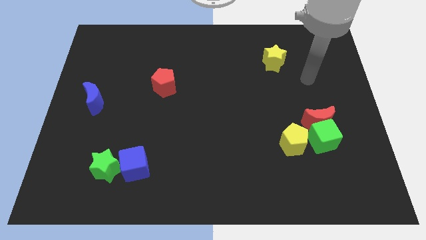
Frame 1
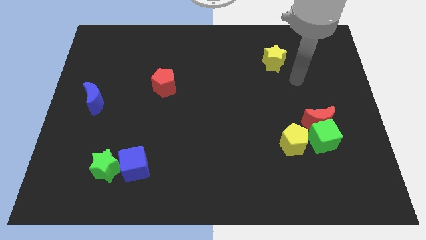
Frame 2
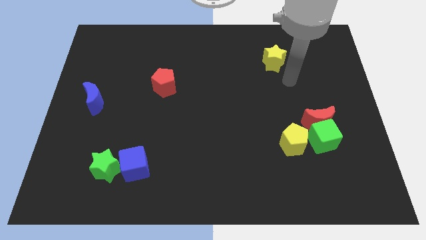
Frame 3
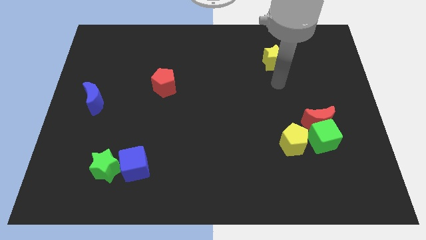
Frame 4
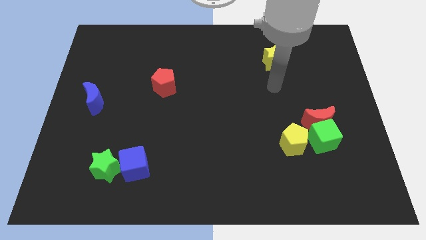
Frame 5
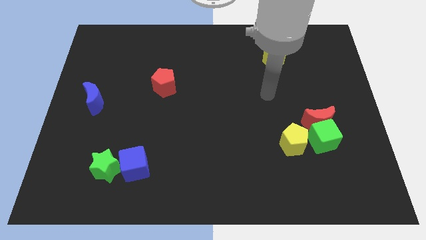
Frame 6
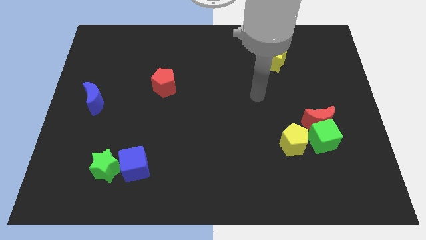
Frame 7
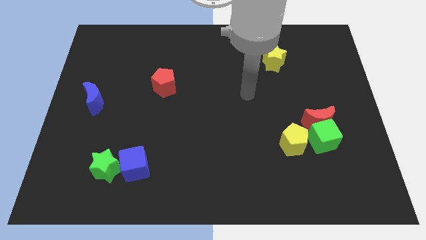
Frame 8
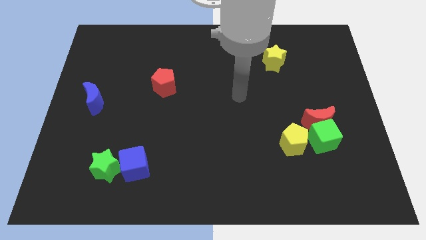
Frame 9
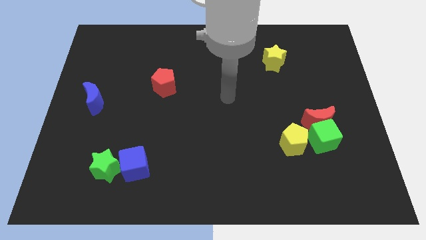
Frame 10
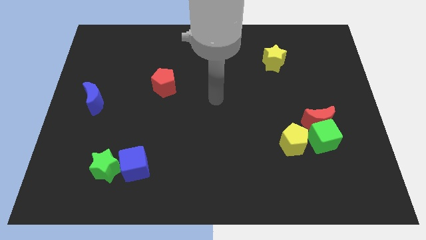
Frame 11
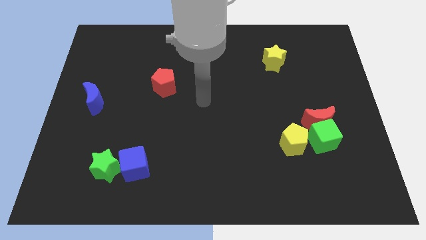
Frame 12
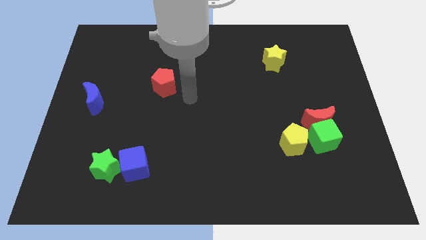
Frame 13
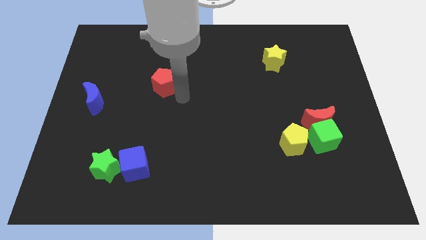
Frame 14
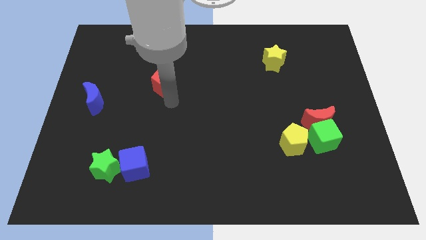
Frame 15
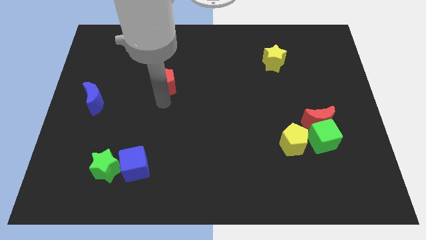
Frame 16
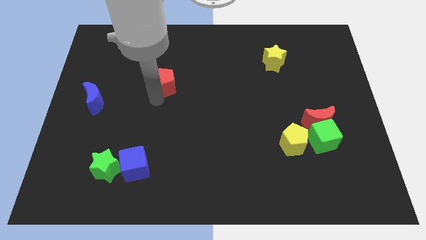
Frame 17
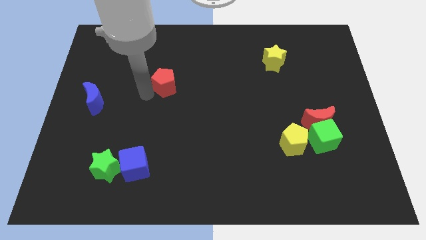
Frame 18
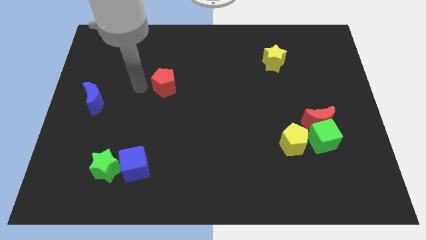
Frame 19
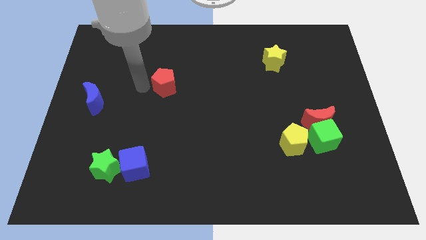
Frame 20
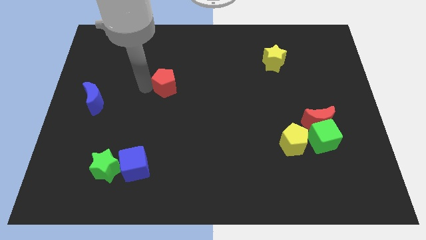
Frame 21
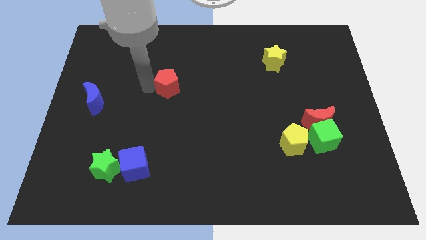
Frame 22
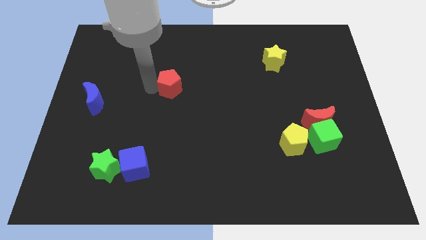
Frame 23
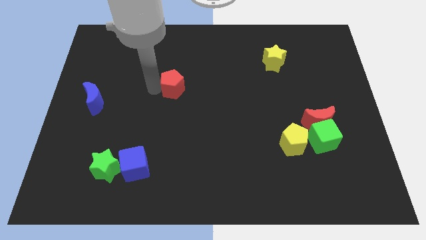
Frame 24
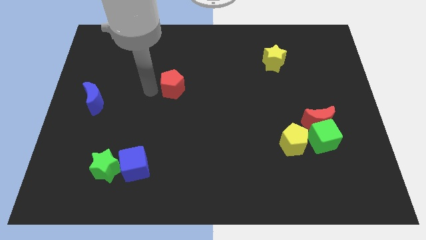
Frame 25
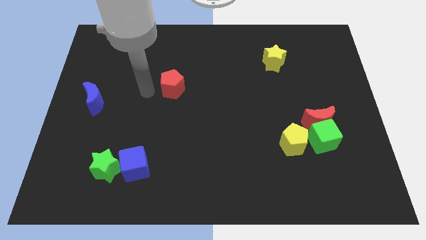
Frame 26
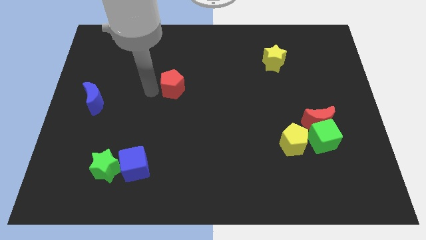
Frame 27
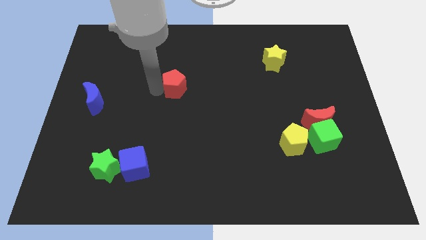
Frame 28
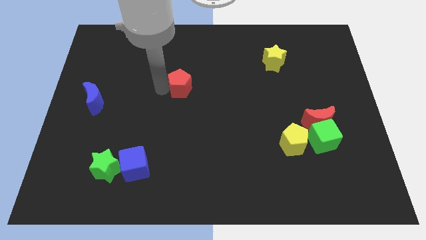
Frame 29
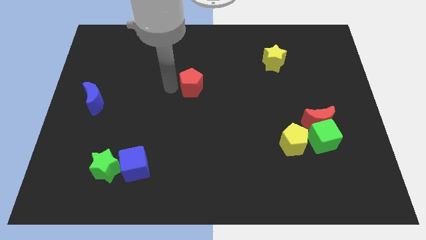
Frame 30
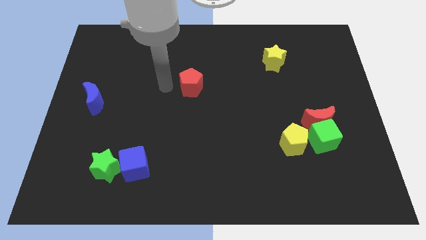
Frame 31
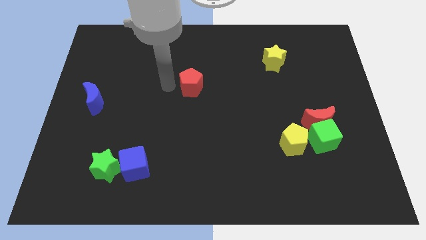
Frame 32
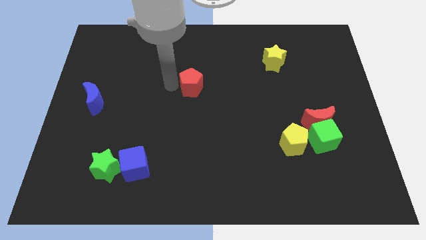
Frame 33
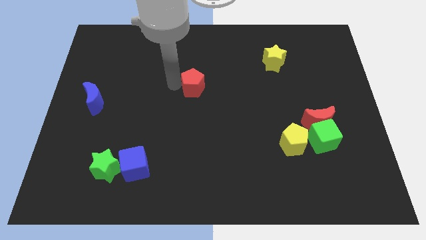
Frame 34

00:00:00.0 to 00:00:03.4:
push the red pentagon to the right a little

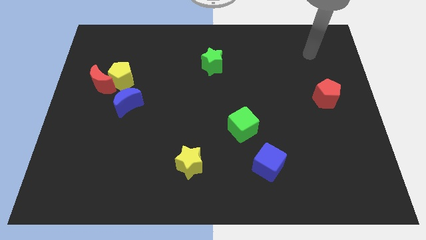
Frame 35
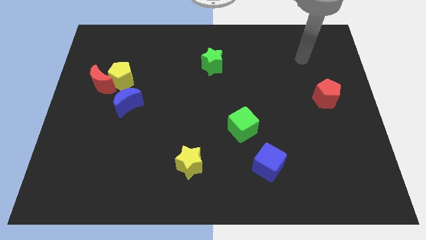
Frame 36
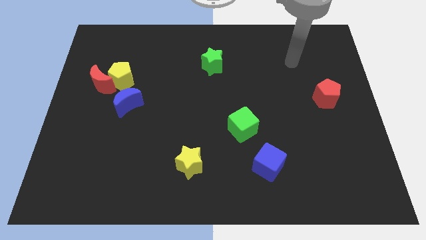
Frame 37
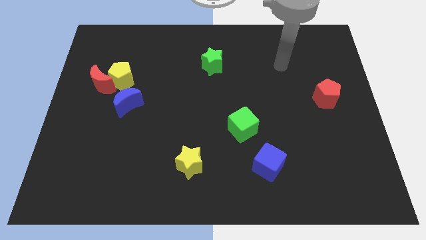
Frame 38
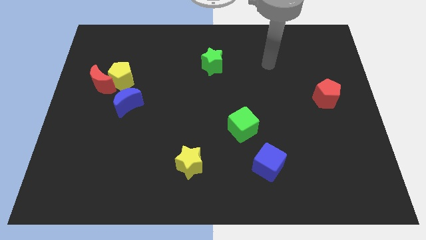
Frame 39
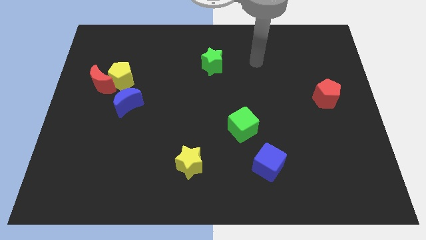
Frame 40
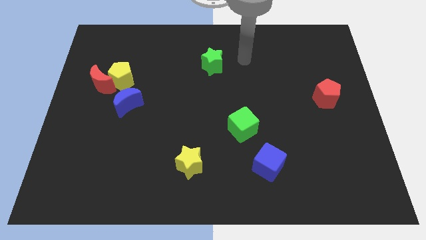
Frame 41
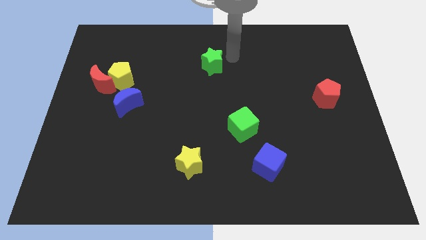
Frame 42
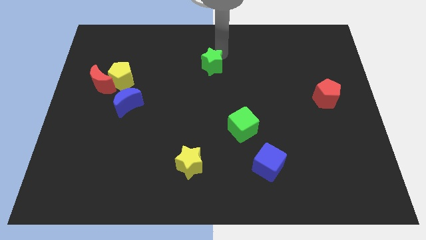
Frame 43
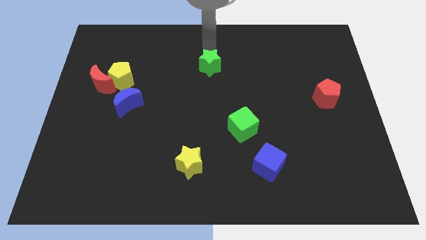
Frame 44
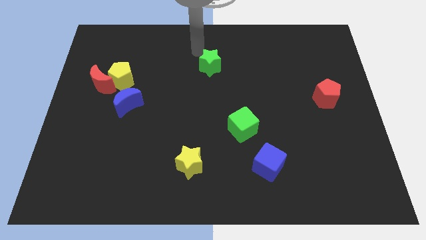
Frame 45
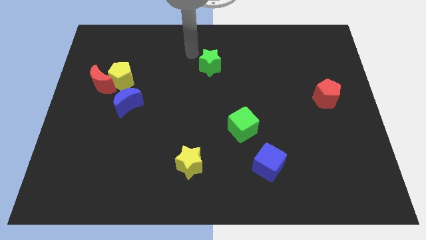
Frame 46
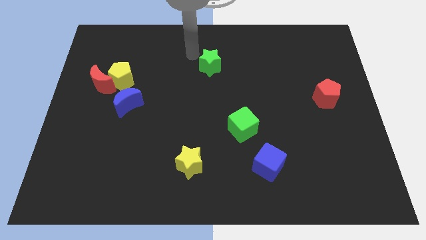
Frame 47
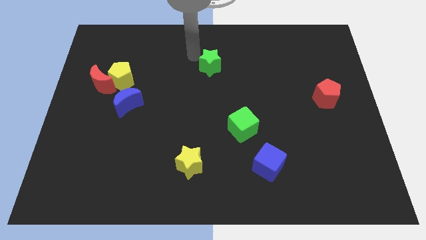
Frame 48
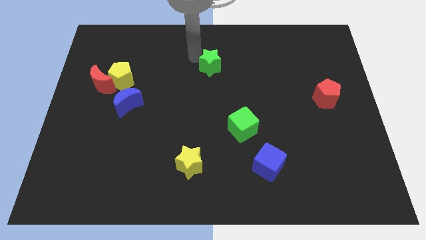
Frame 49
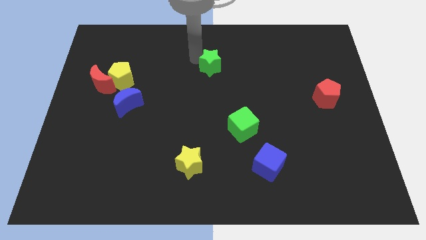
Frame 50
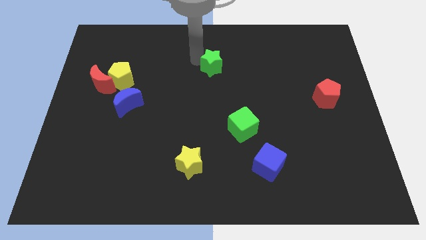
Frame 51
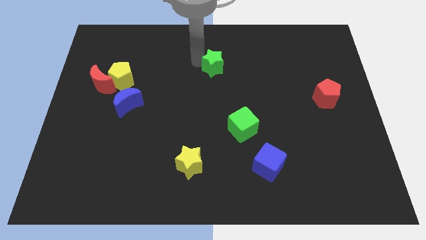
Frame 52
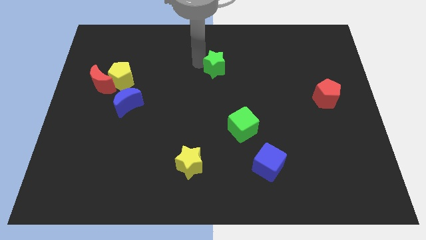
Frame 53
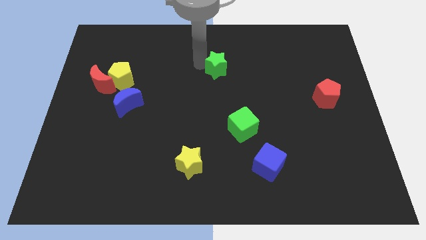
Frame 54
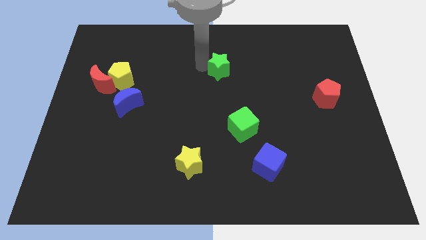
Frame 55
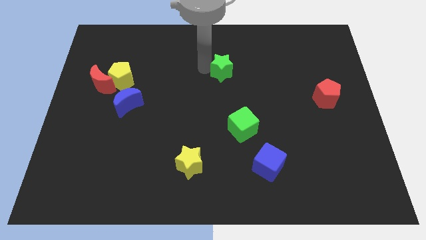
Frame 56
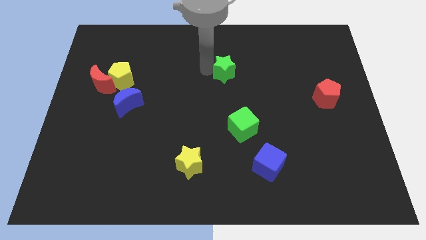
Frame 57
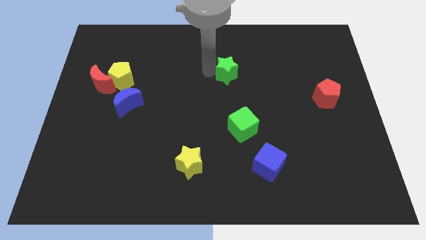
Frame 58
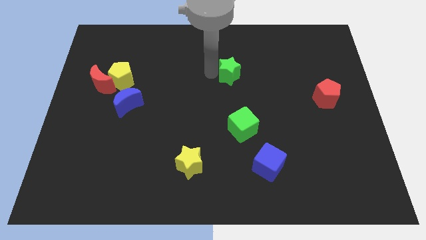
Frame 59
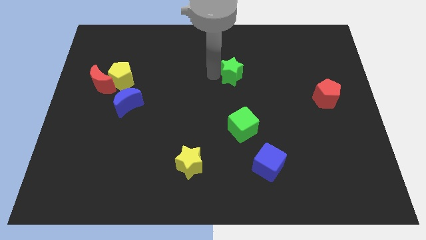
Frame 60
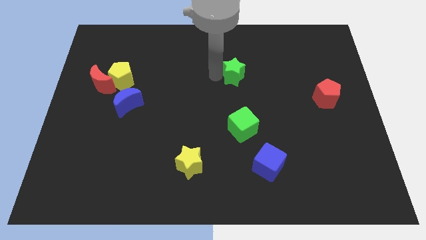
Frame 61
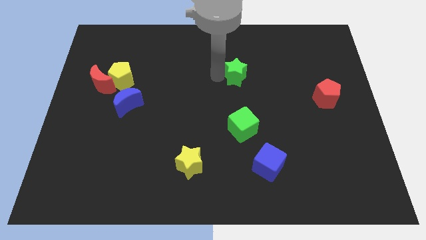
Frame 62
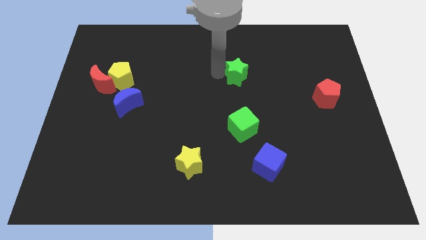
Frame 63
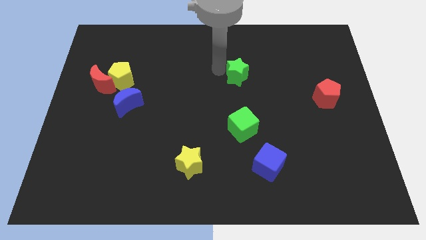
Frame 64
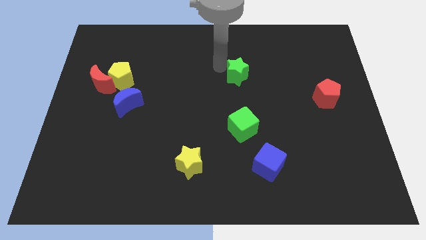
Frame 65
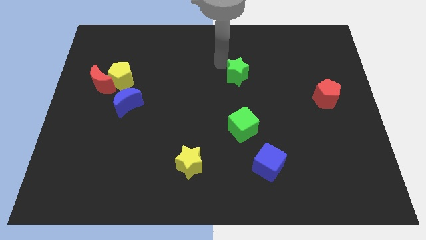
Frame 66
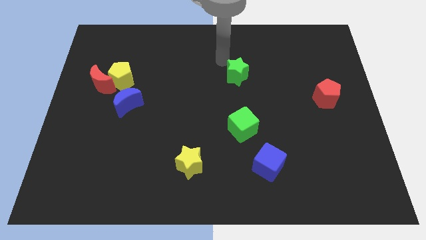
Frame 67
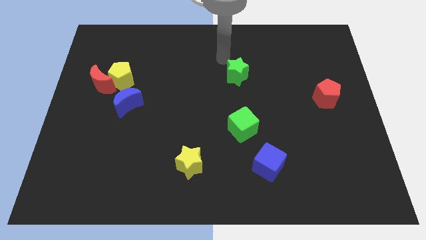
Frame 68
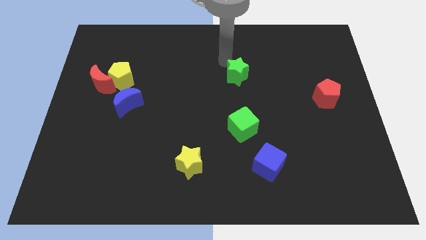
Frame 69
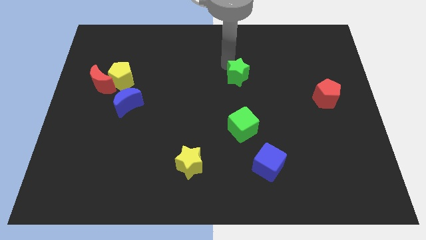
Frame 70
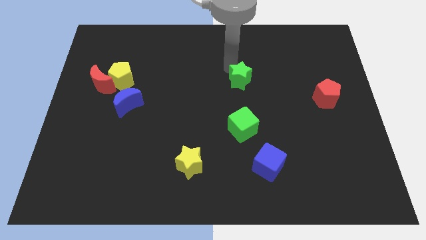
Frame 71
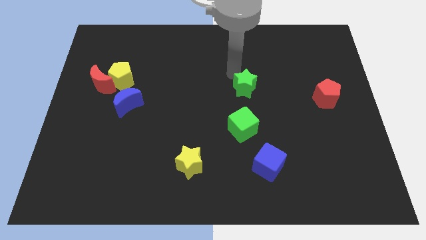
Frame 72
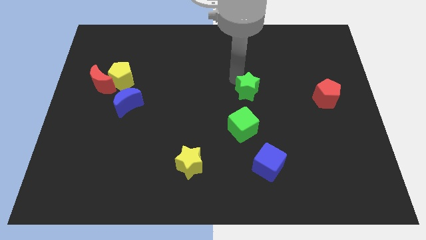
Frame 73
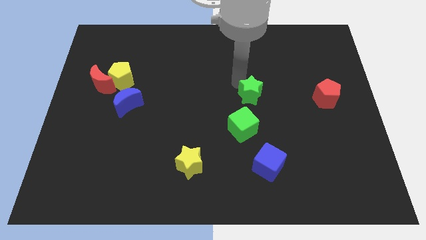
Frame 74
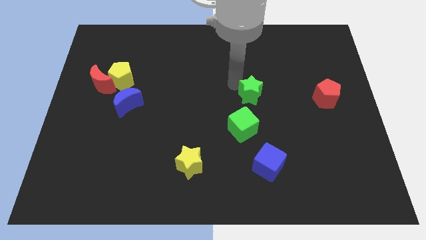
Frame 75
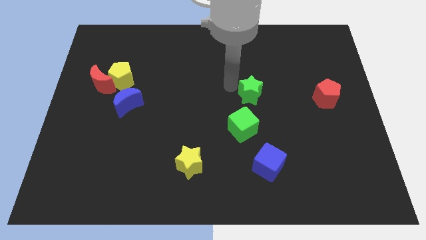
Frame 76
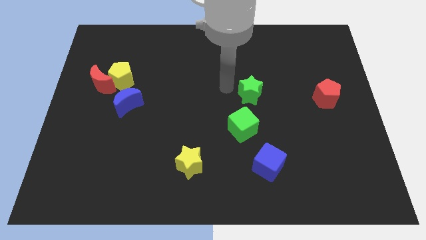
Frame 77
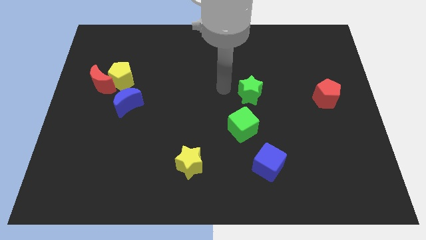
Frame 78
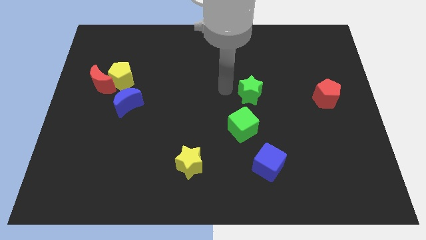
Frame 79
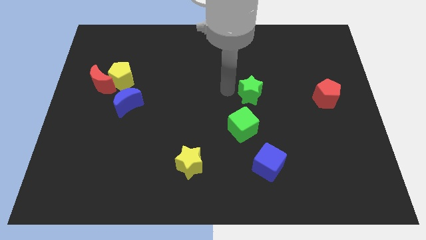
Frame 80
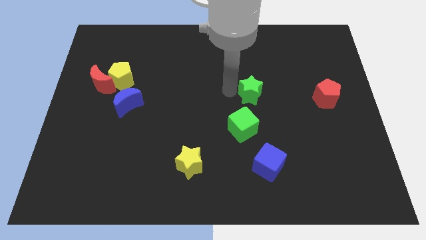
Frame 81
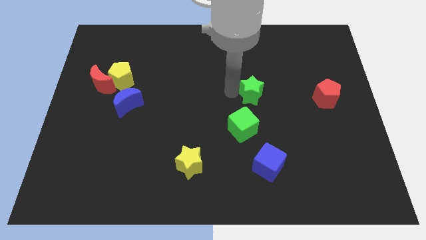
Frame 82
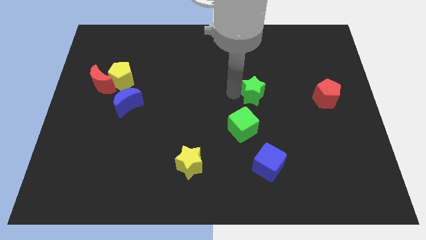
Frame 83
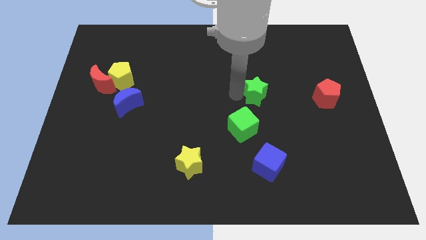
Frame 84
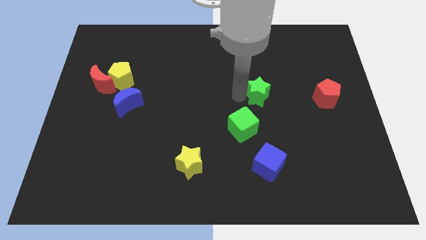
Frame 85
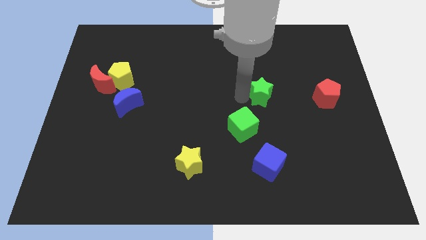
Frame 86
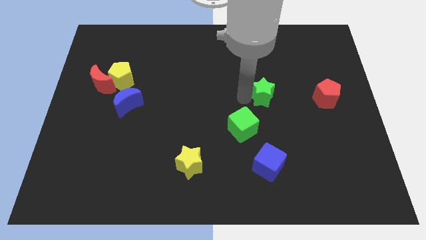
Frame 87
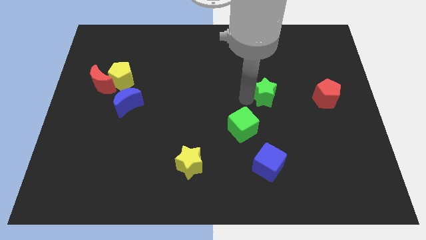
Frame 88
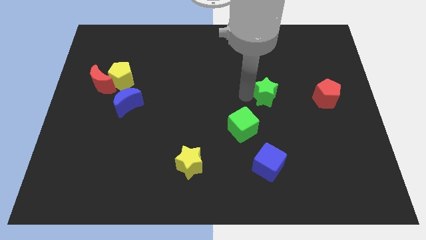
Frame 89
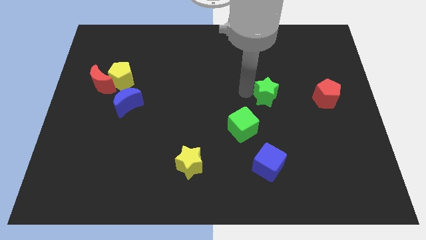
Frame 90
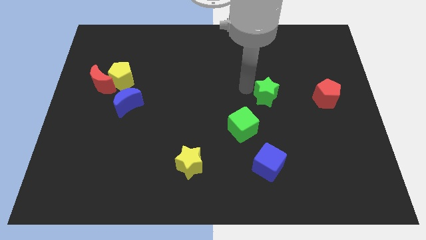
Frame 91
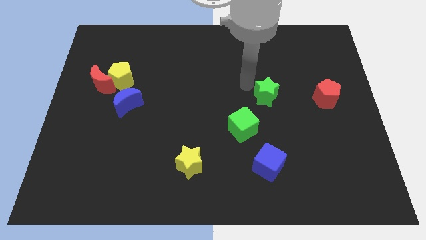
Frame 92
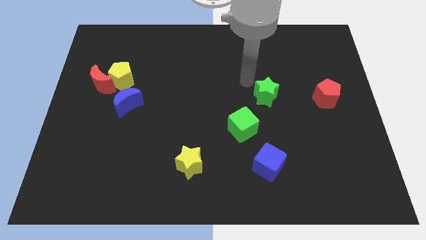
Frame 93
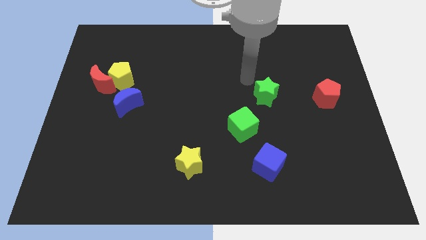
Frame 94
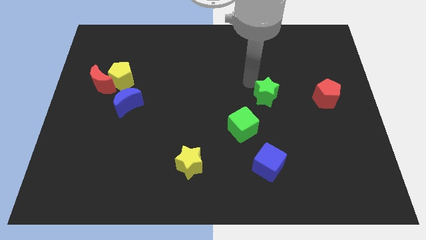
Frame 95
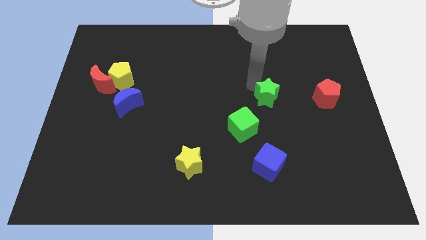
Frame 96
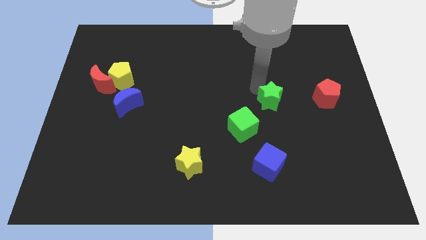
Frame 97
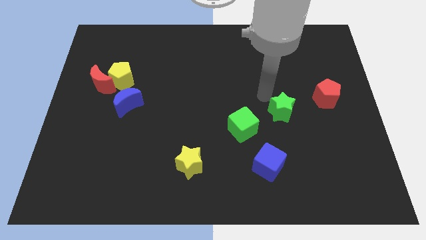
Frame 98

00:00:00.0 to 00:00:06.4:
slide the green star downwards and then to the right
